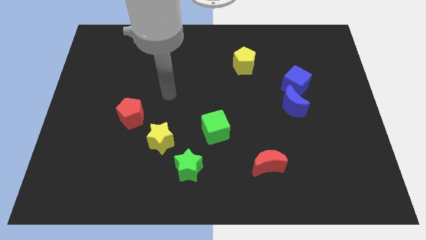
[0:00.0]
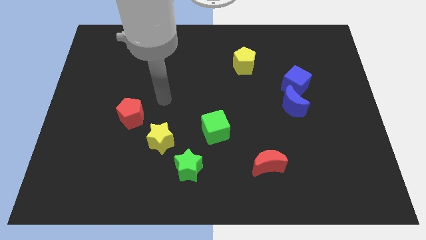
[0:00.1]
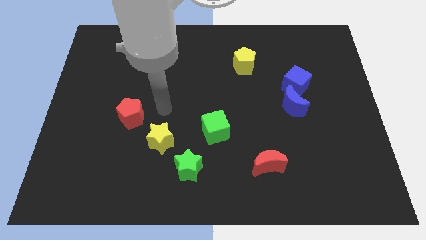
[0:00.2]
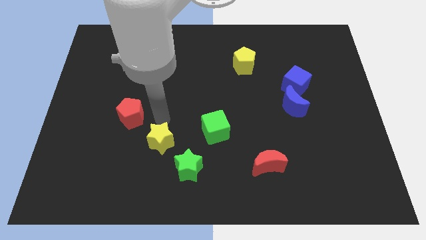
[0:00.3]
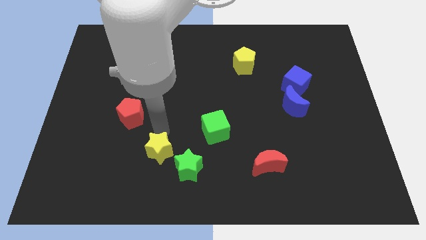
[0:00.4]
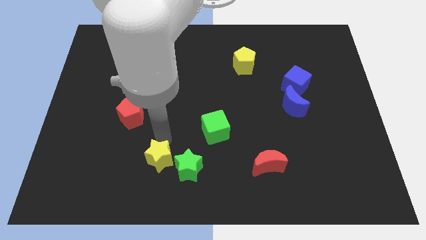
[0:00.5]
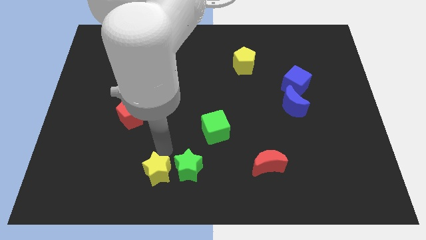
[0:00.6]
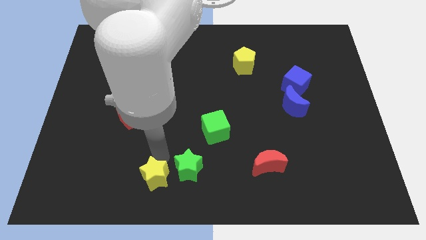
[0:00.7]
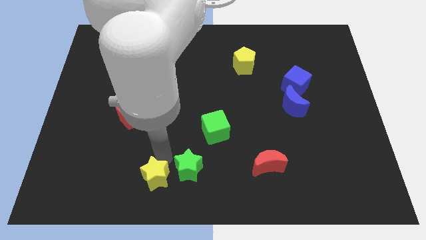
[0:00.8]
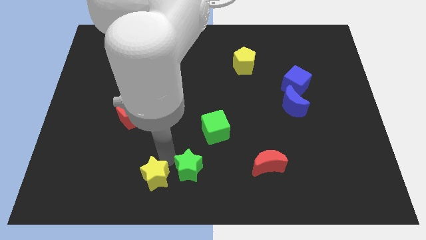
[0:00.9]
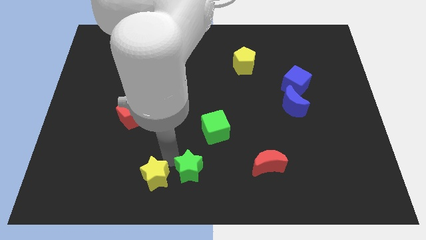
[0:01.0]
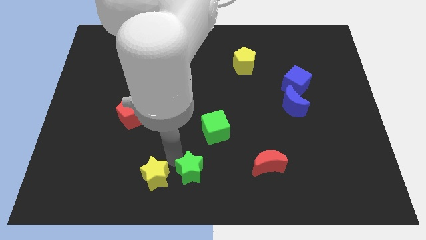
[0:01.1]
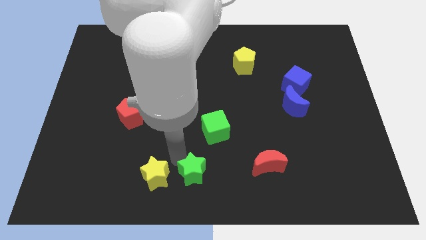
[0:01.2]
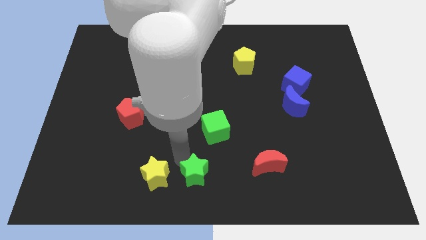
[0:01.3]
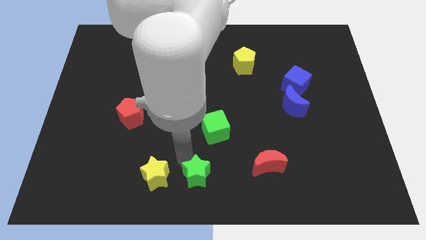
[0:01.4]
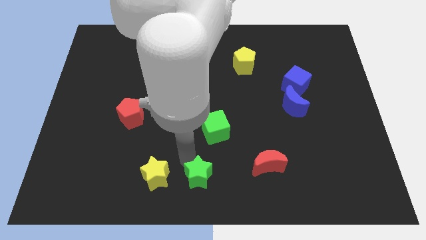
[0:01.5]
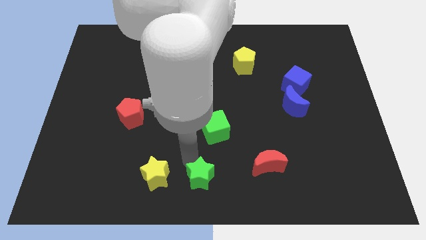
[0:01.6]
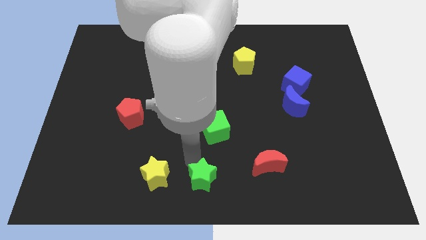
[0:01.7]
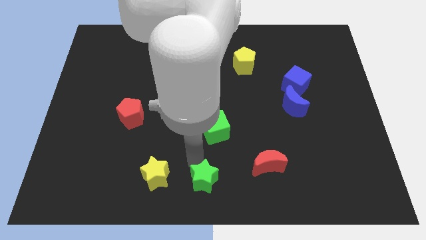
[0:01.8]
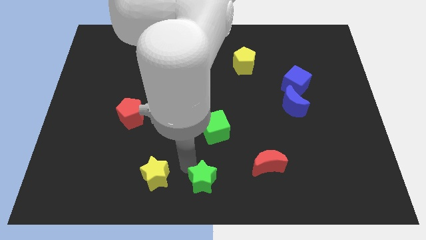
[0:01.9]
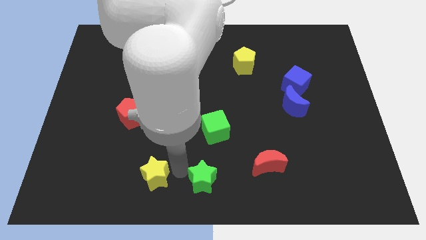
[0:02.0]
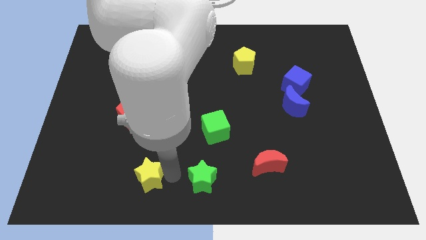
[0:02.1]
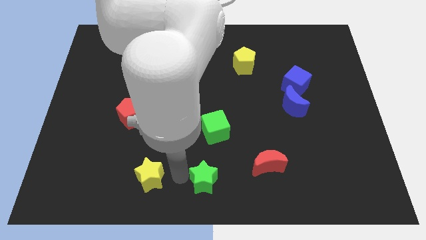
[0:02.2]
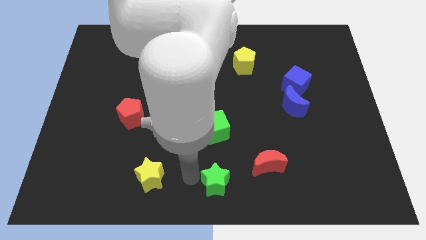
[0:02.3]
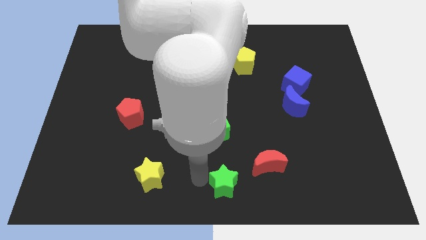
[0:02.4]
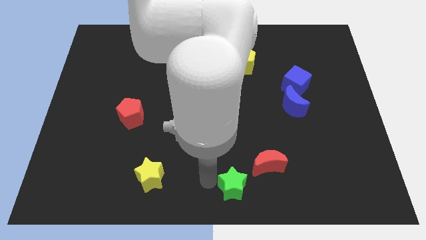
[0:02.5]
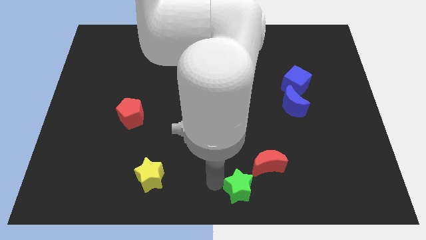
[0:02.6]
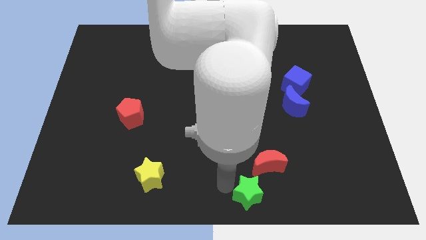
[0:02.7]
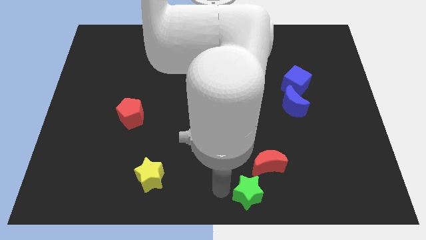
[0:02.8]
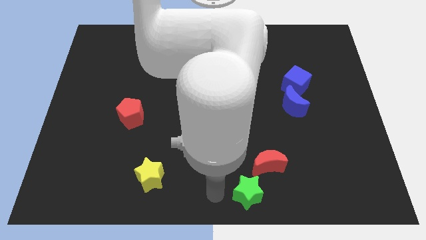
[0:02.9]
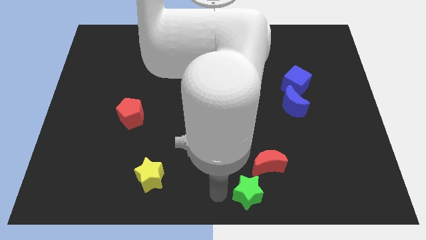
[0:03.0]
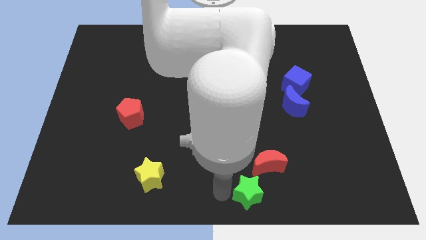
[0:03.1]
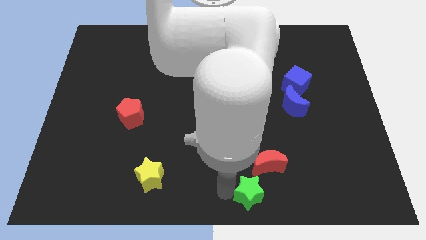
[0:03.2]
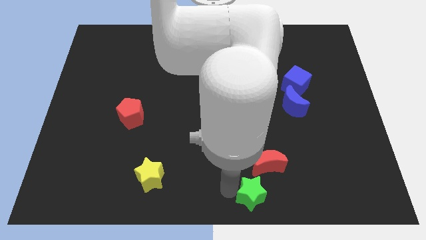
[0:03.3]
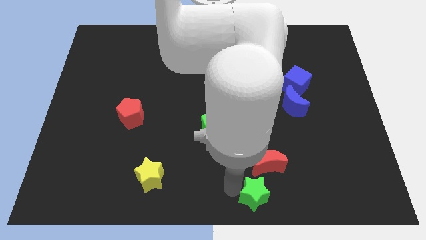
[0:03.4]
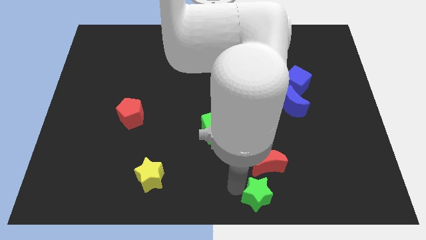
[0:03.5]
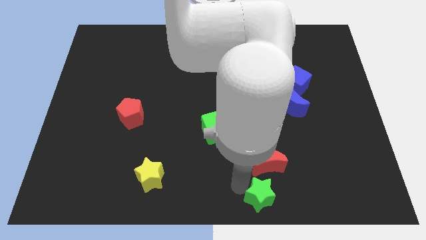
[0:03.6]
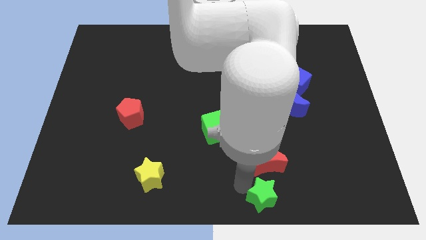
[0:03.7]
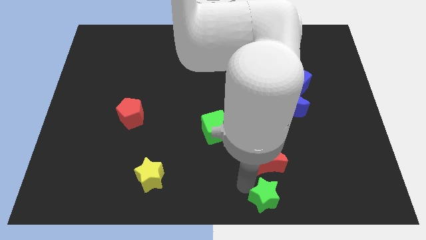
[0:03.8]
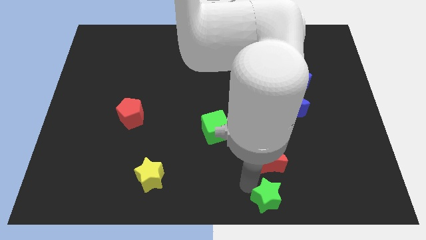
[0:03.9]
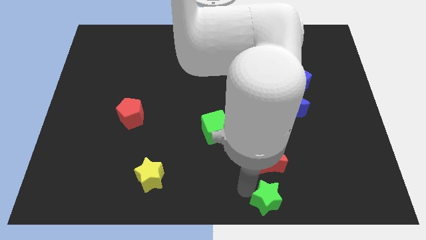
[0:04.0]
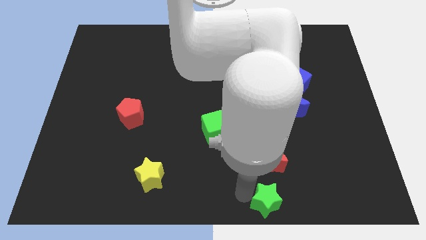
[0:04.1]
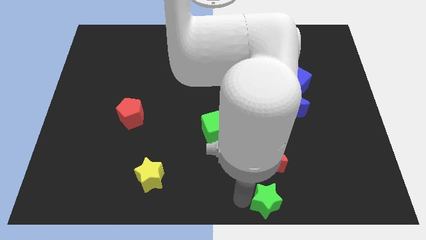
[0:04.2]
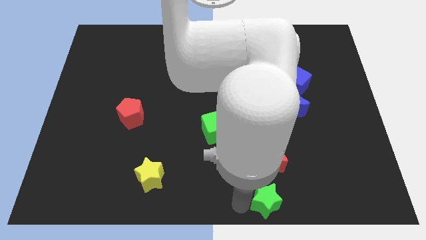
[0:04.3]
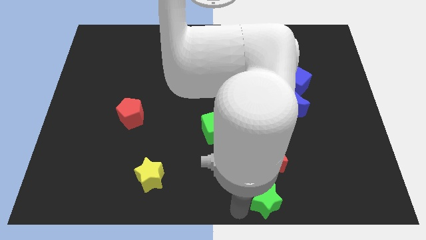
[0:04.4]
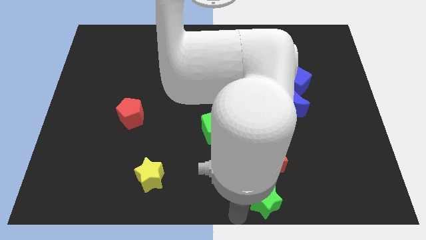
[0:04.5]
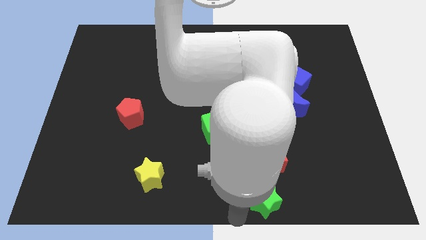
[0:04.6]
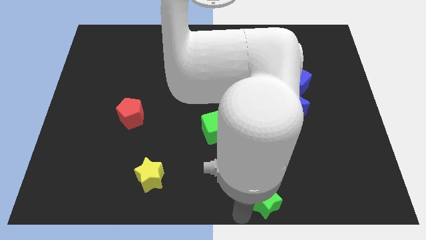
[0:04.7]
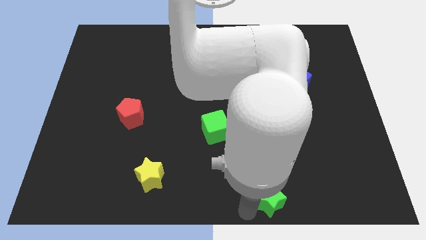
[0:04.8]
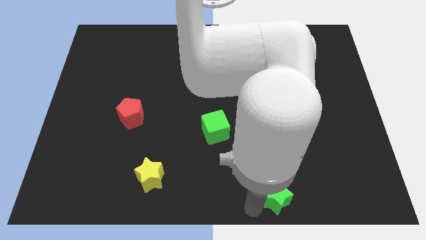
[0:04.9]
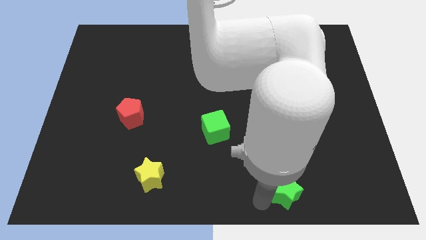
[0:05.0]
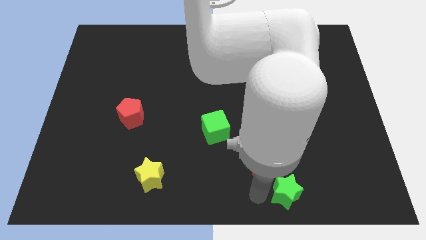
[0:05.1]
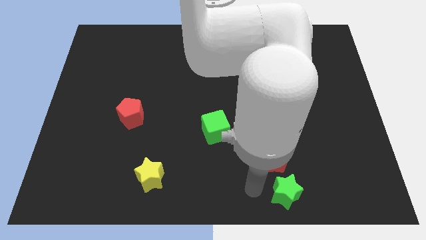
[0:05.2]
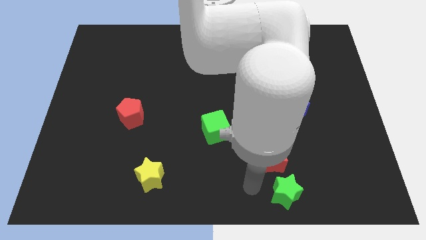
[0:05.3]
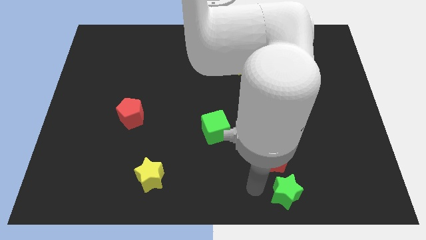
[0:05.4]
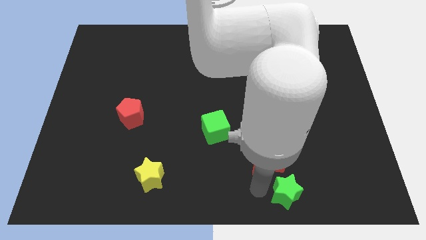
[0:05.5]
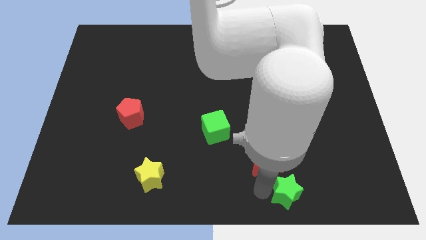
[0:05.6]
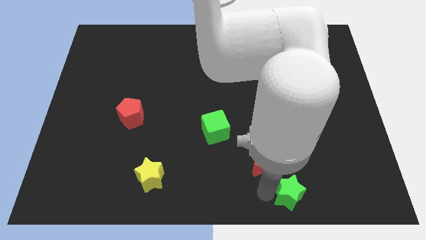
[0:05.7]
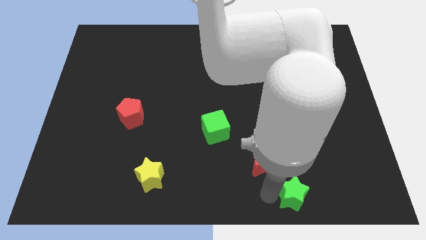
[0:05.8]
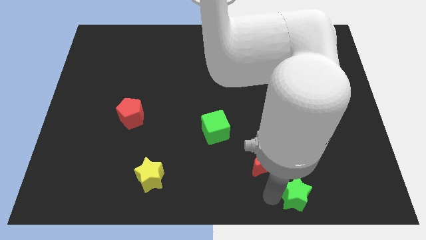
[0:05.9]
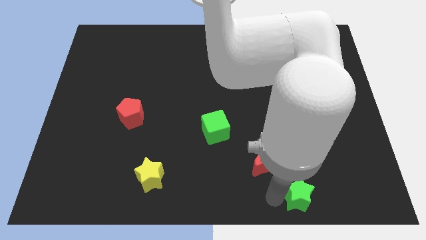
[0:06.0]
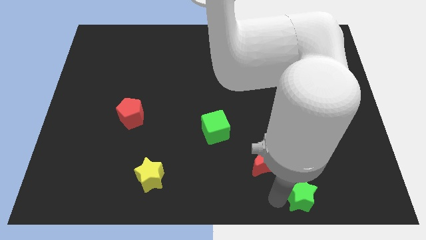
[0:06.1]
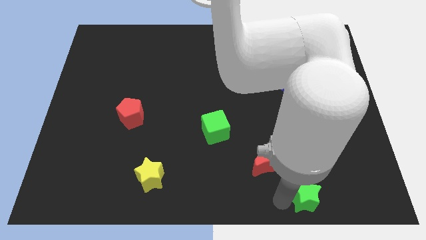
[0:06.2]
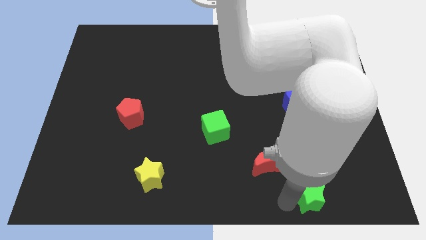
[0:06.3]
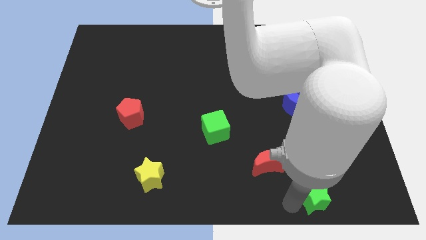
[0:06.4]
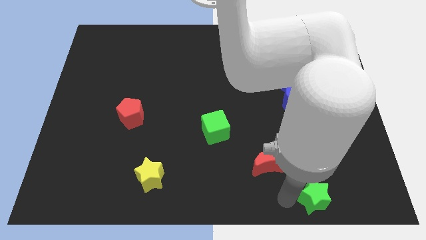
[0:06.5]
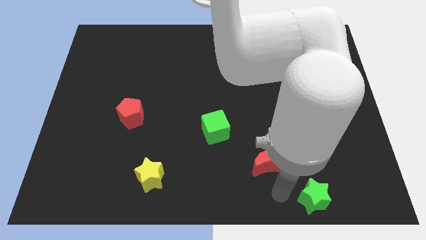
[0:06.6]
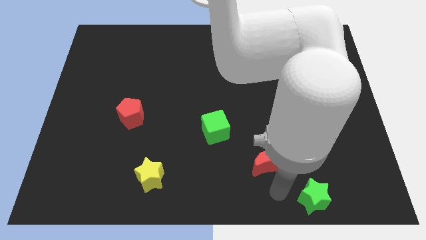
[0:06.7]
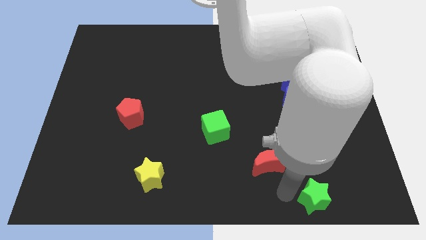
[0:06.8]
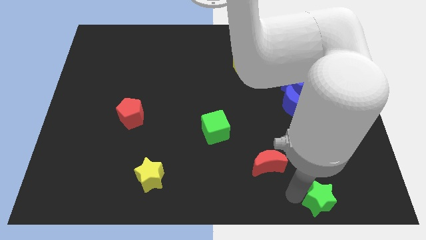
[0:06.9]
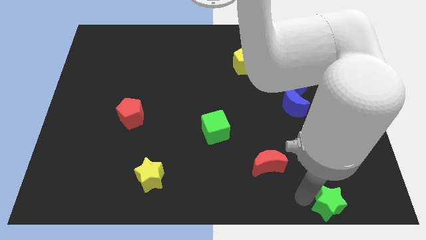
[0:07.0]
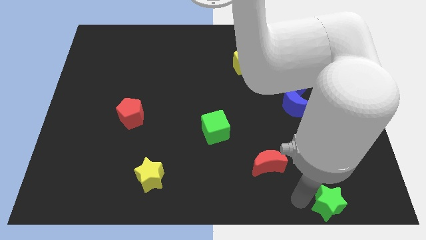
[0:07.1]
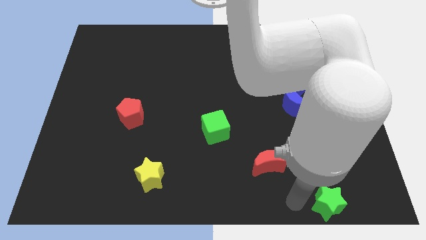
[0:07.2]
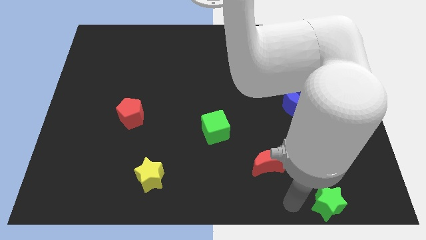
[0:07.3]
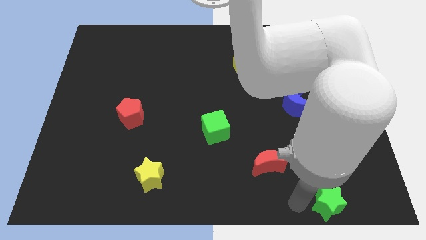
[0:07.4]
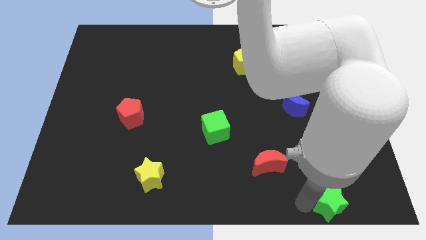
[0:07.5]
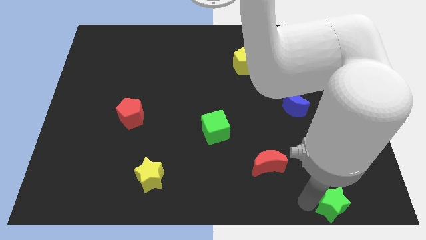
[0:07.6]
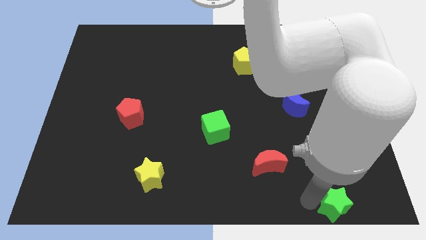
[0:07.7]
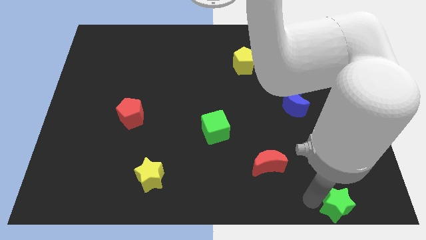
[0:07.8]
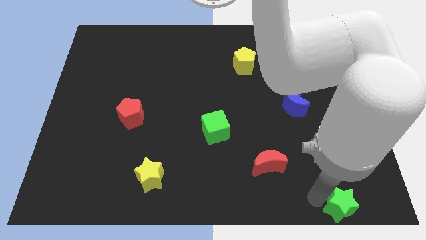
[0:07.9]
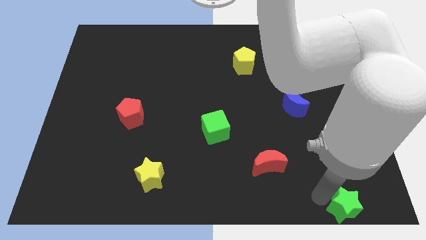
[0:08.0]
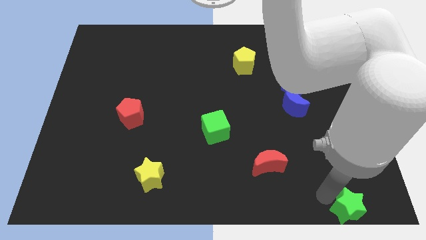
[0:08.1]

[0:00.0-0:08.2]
put the green star to the lower right corner
